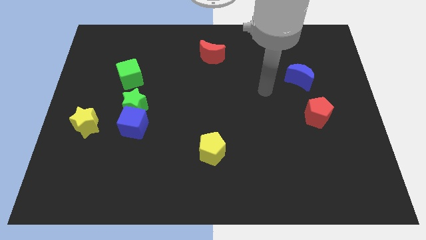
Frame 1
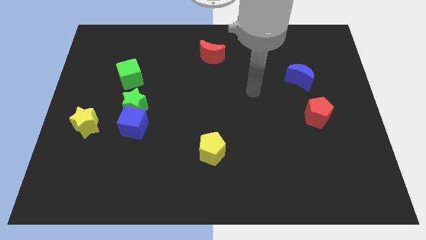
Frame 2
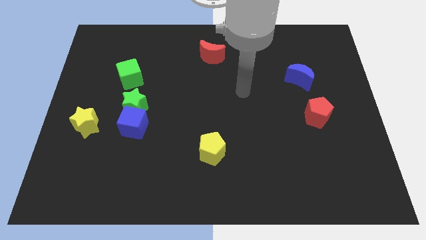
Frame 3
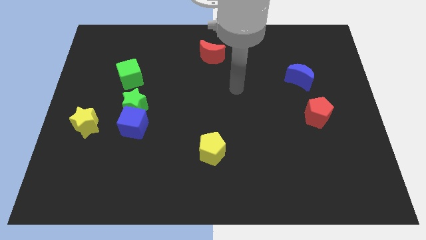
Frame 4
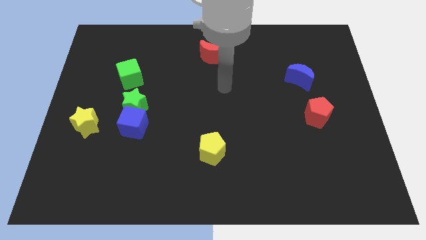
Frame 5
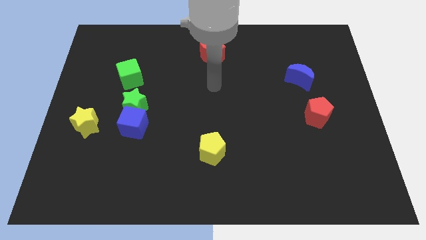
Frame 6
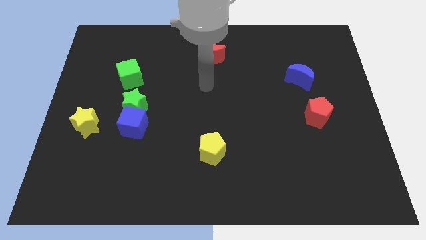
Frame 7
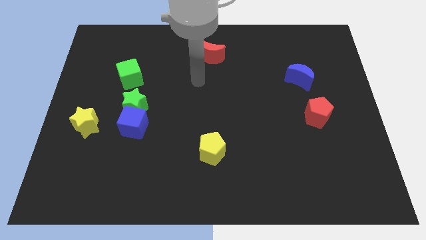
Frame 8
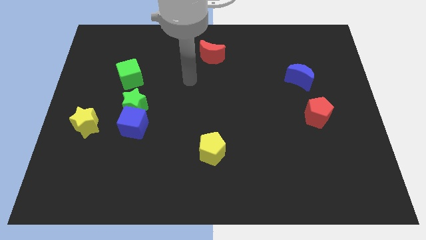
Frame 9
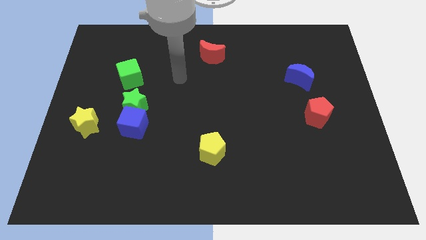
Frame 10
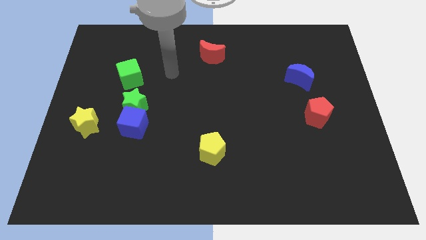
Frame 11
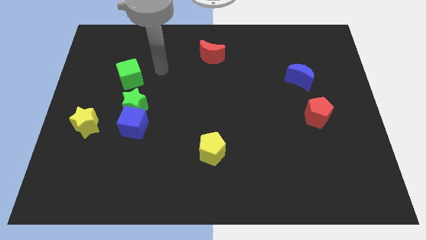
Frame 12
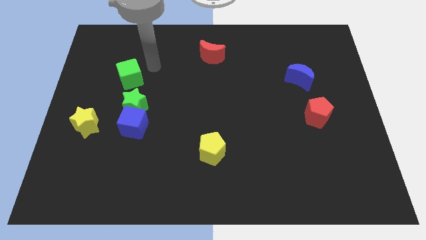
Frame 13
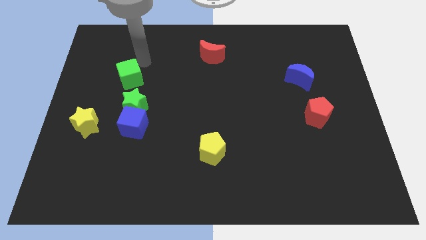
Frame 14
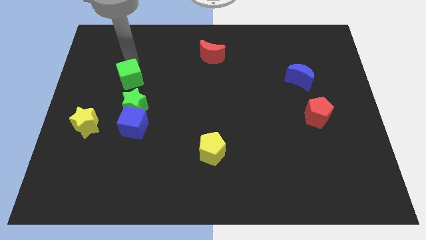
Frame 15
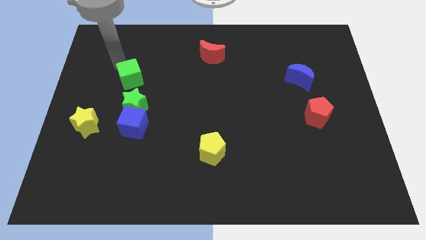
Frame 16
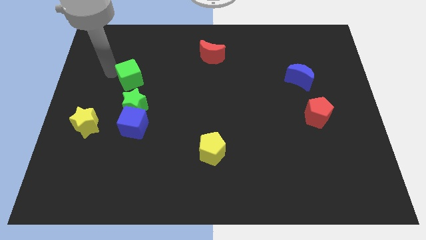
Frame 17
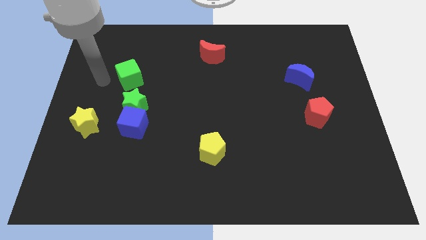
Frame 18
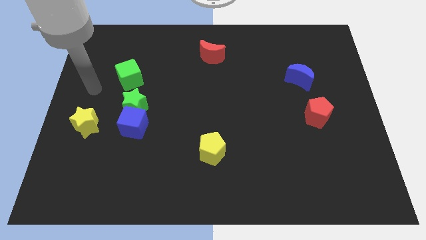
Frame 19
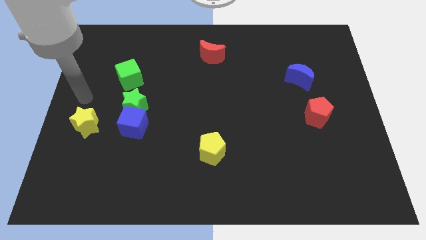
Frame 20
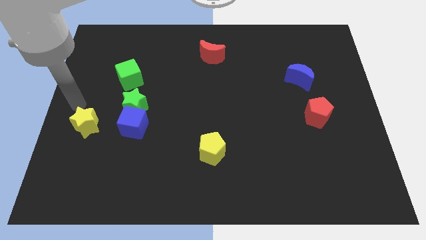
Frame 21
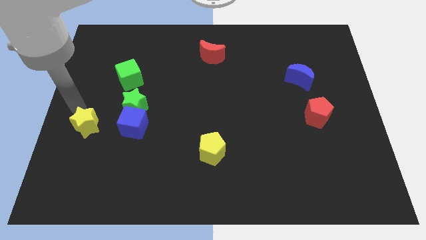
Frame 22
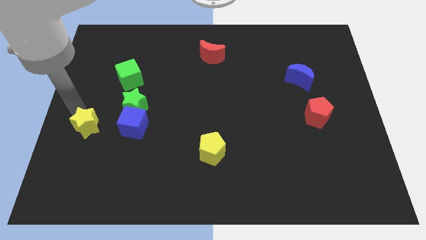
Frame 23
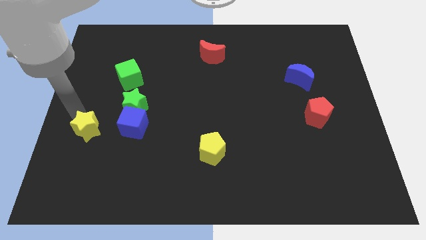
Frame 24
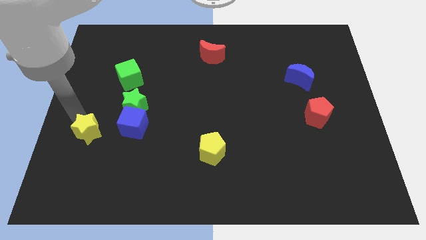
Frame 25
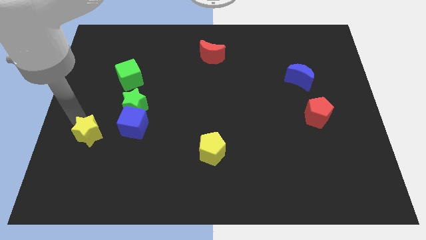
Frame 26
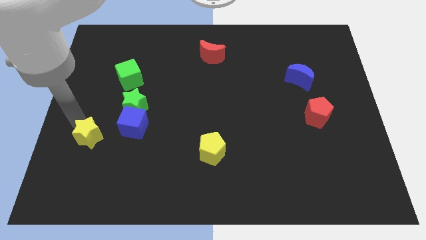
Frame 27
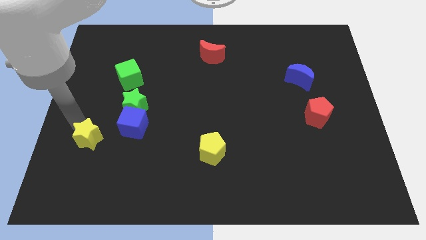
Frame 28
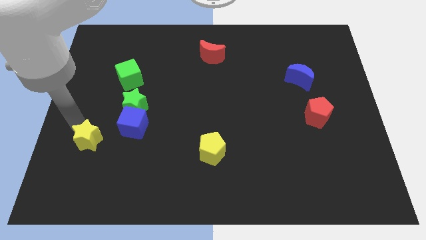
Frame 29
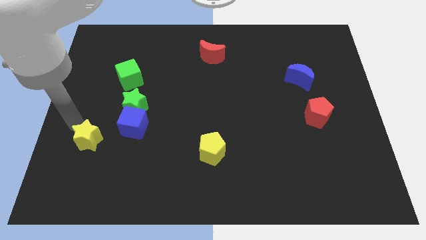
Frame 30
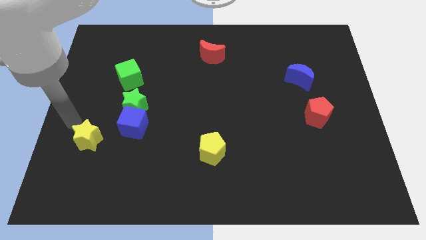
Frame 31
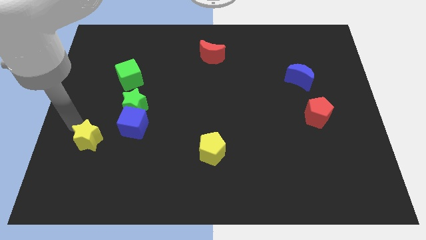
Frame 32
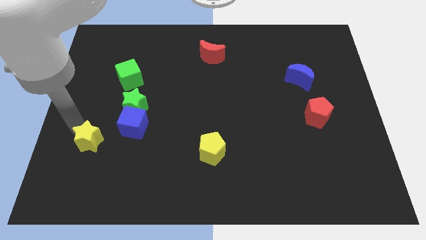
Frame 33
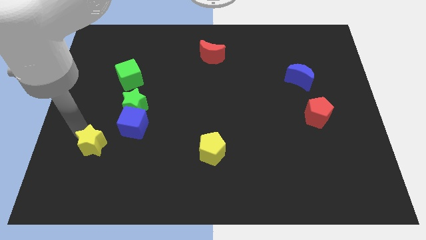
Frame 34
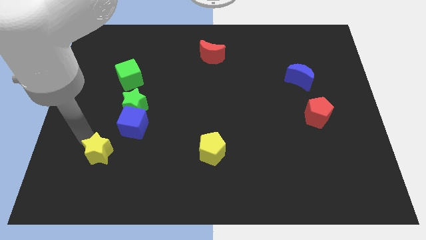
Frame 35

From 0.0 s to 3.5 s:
push the yellow star a bit downwards and right

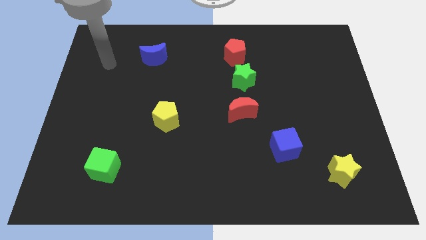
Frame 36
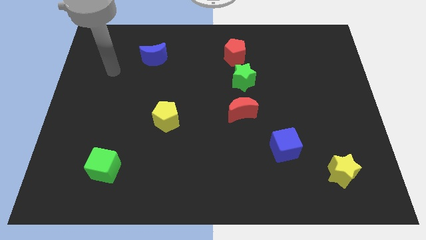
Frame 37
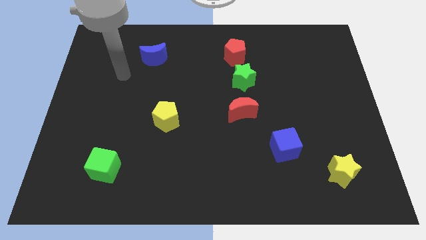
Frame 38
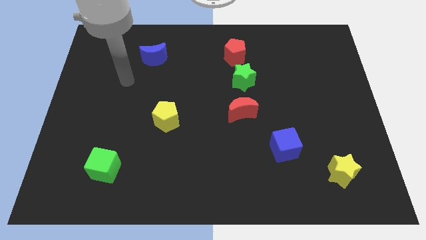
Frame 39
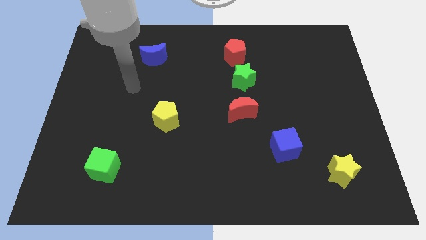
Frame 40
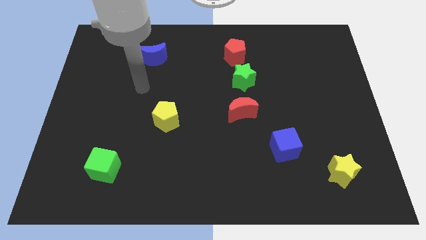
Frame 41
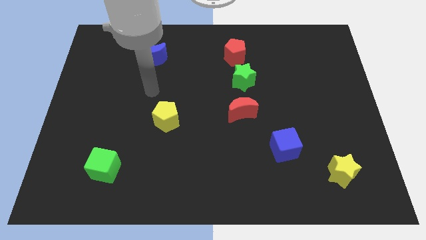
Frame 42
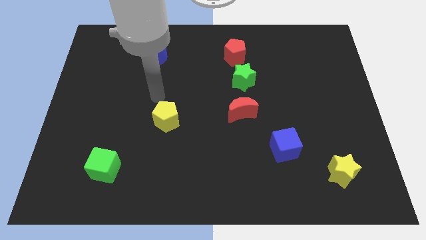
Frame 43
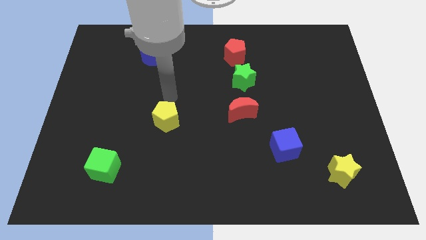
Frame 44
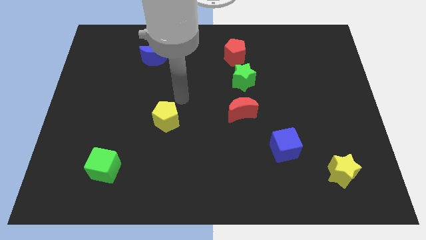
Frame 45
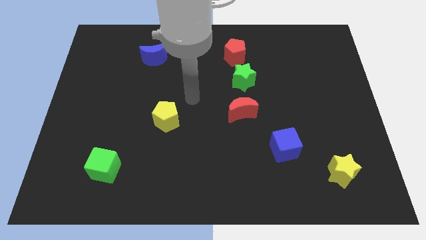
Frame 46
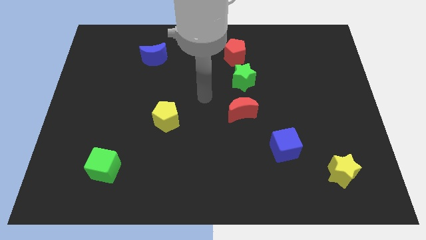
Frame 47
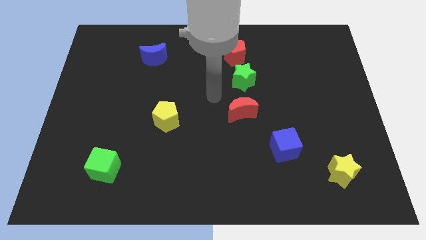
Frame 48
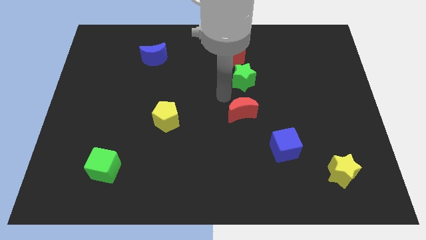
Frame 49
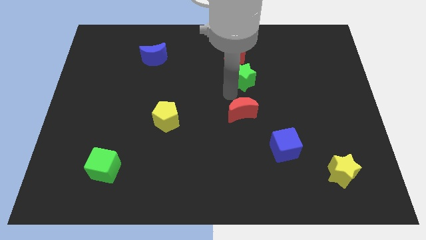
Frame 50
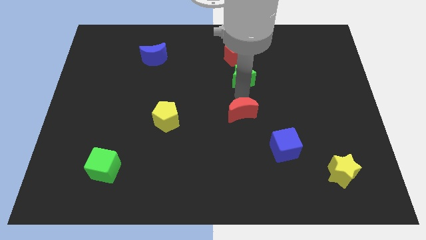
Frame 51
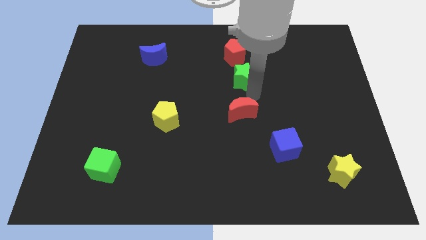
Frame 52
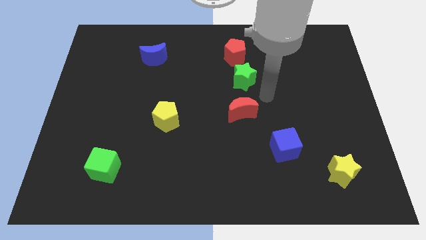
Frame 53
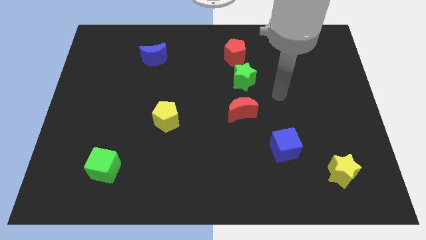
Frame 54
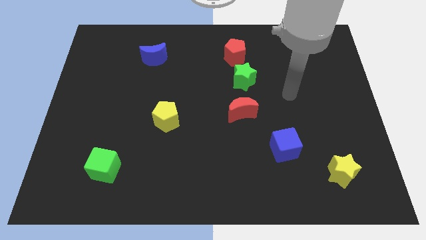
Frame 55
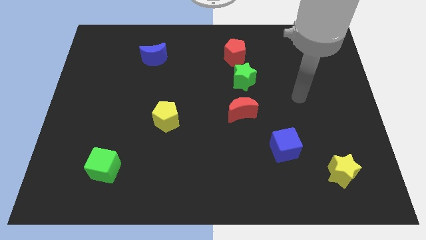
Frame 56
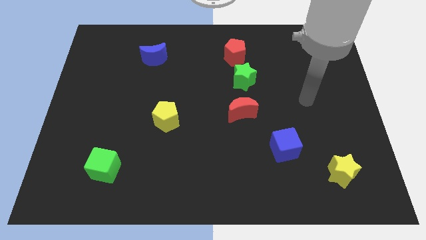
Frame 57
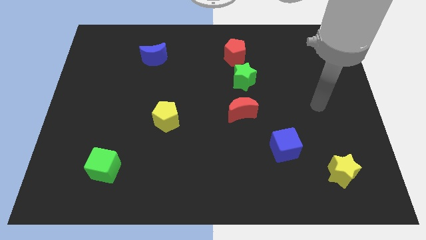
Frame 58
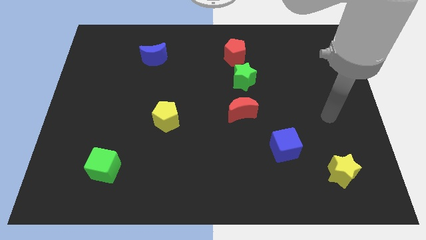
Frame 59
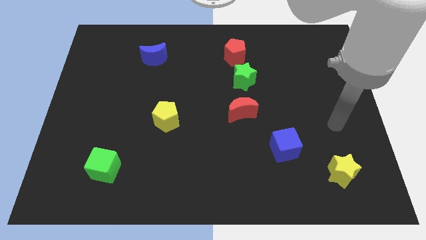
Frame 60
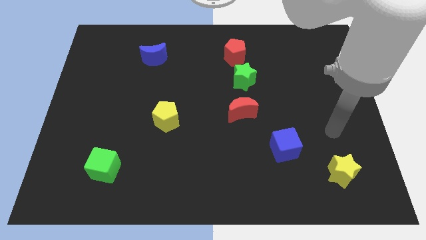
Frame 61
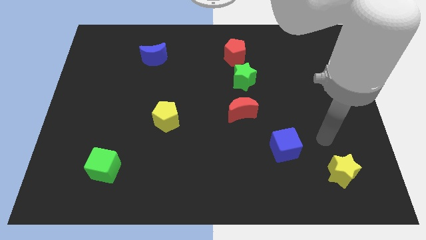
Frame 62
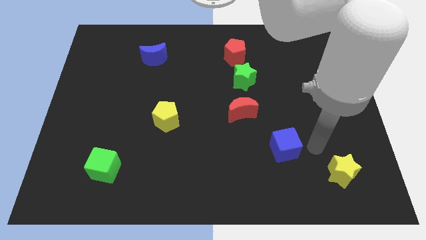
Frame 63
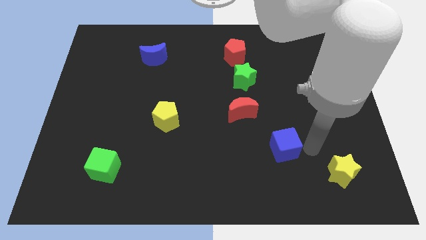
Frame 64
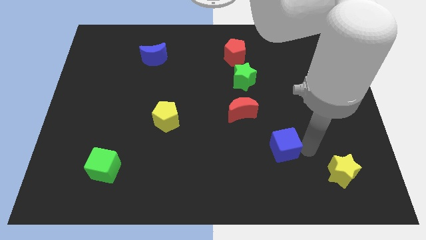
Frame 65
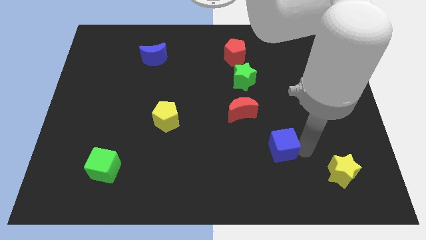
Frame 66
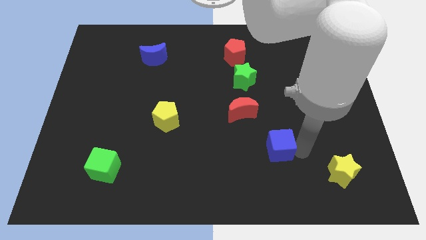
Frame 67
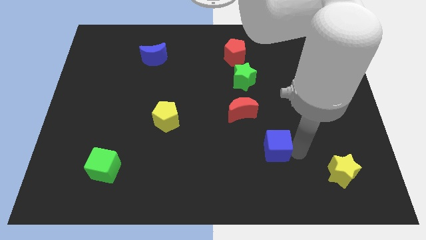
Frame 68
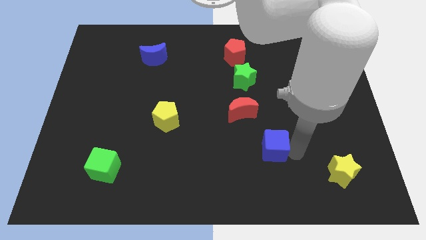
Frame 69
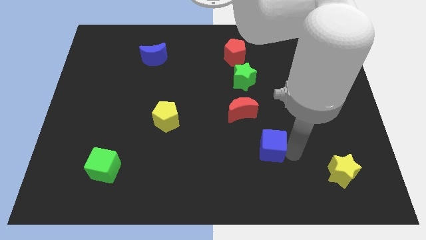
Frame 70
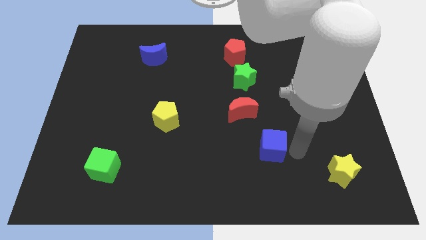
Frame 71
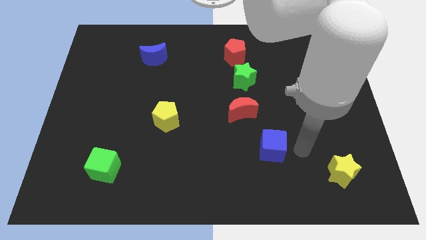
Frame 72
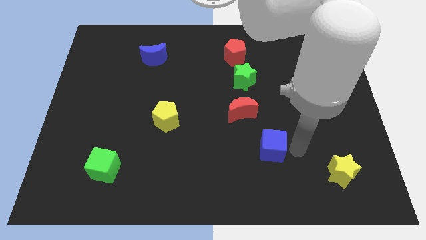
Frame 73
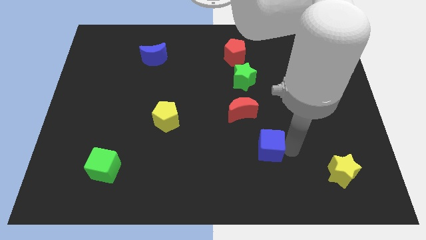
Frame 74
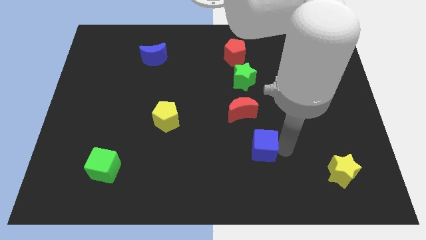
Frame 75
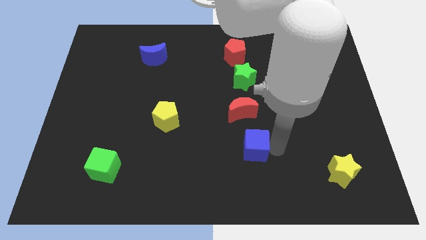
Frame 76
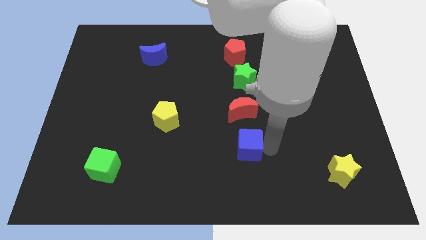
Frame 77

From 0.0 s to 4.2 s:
slightly push the blue cube to the left

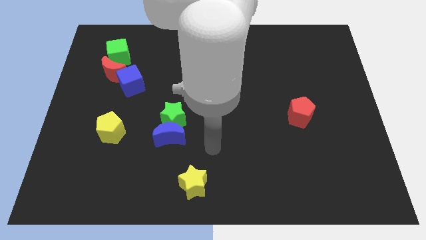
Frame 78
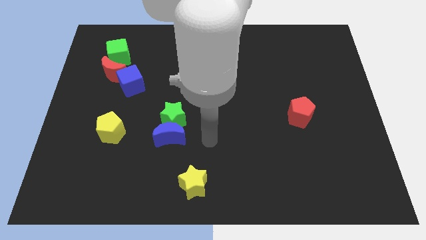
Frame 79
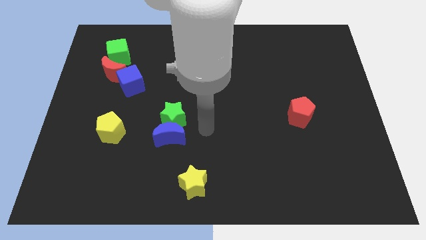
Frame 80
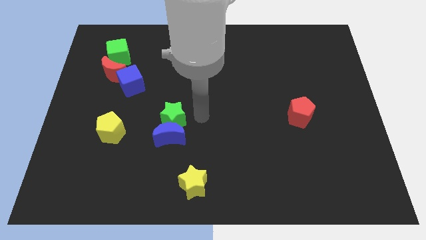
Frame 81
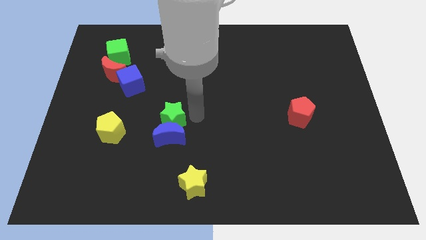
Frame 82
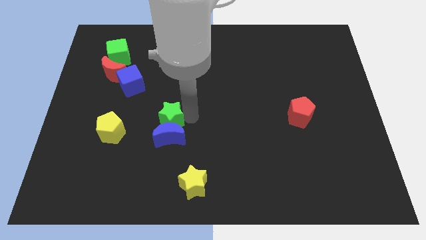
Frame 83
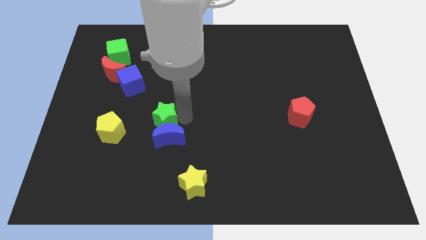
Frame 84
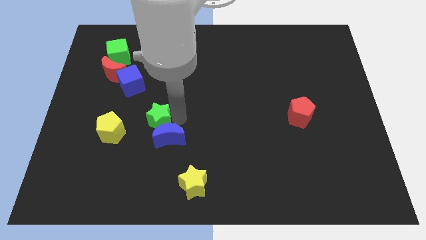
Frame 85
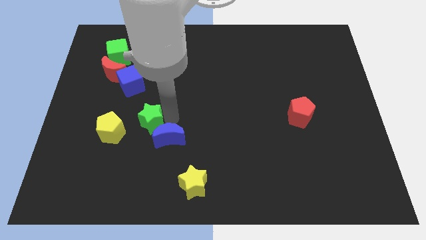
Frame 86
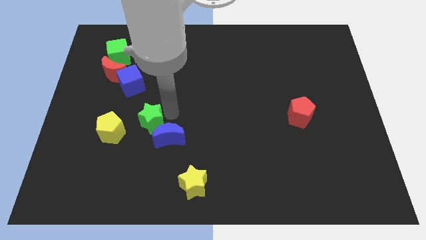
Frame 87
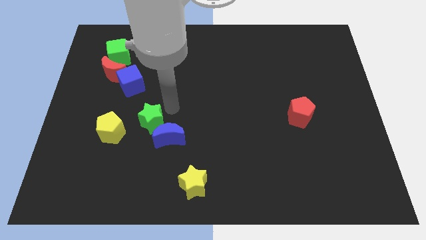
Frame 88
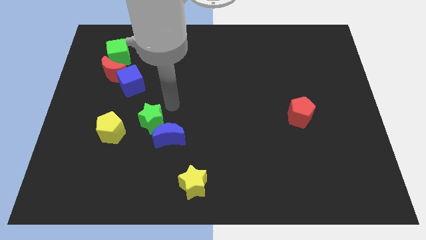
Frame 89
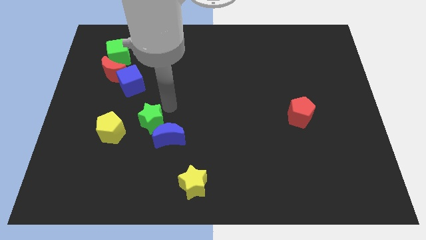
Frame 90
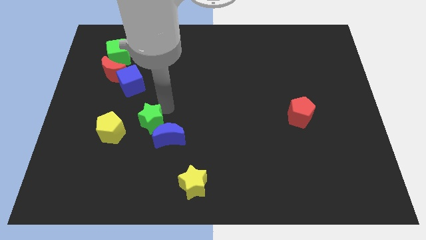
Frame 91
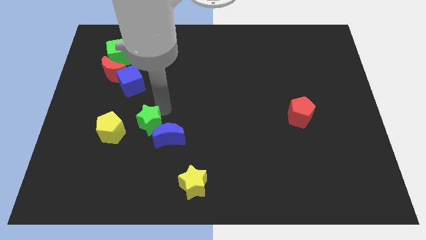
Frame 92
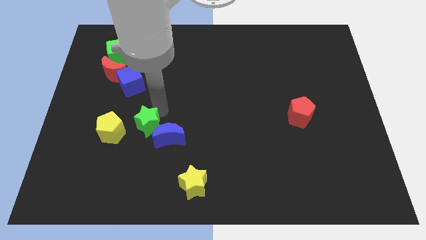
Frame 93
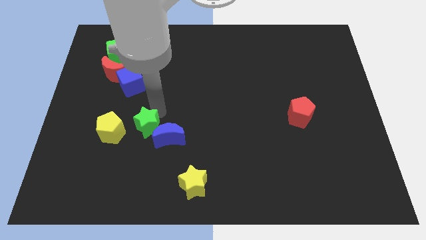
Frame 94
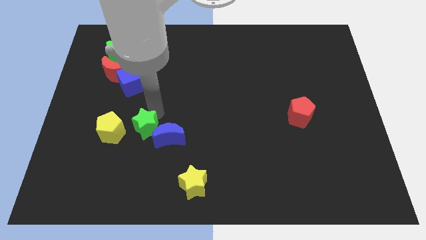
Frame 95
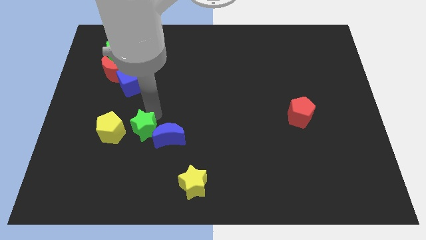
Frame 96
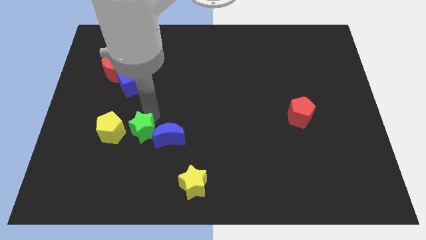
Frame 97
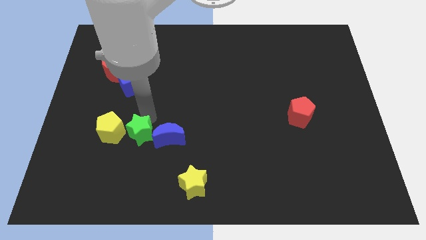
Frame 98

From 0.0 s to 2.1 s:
push the green star down and then to the left a bit
